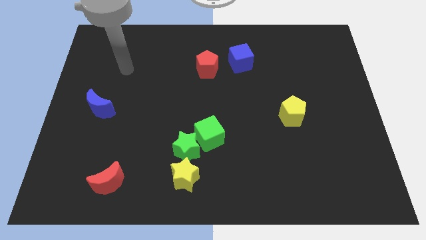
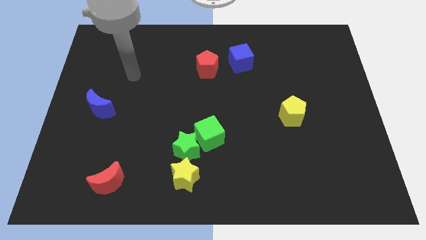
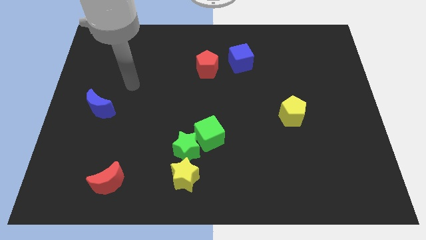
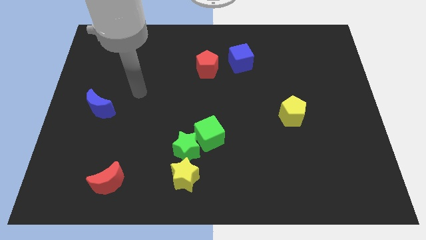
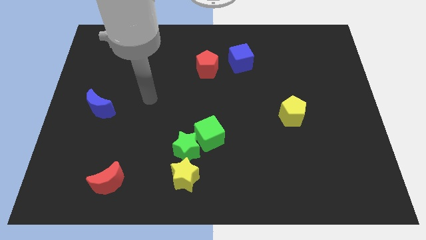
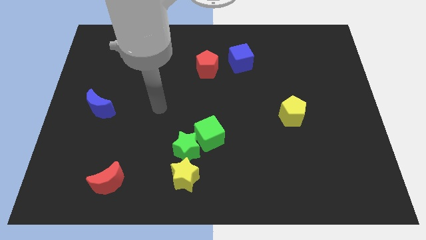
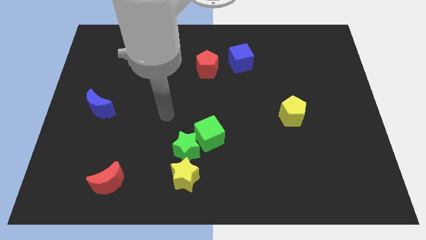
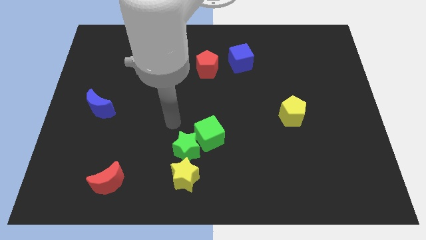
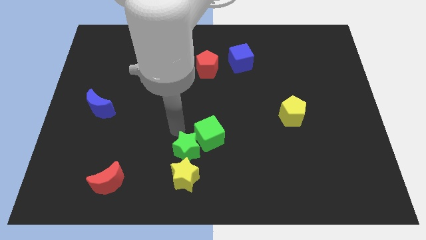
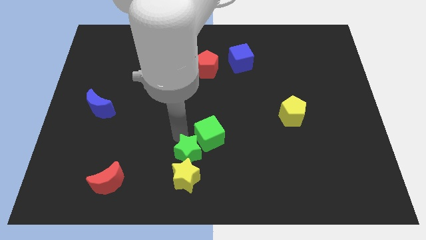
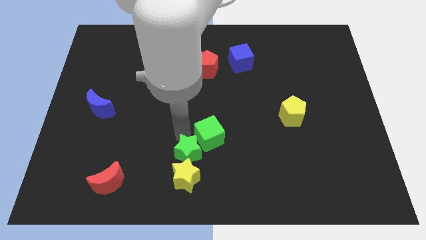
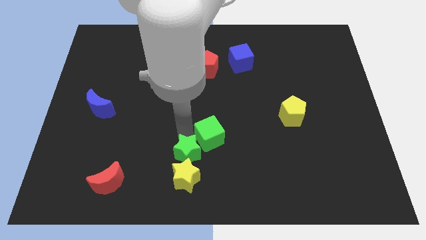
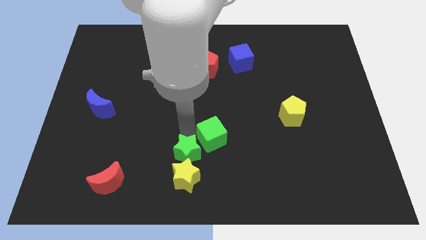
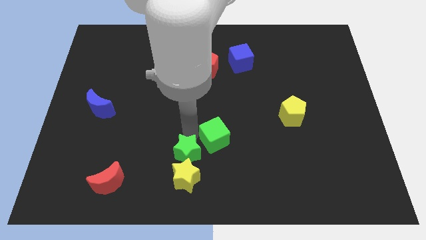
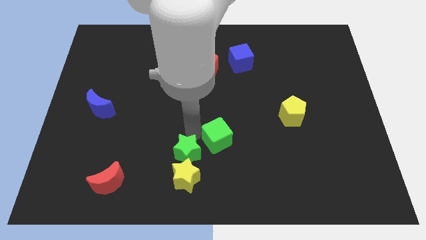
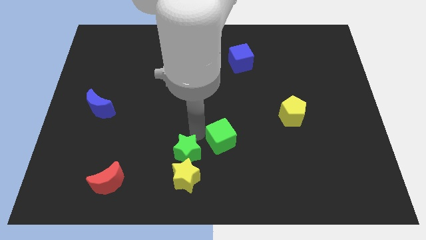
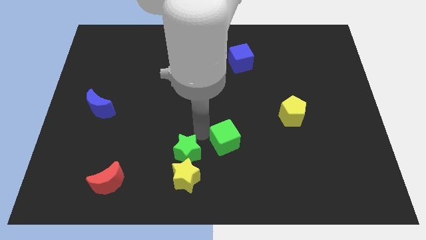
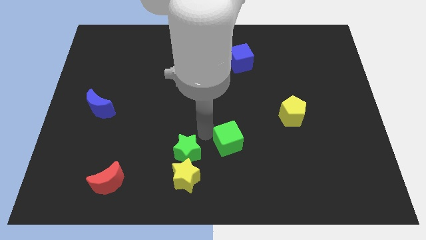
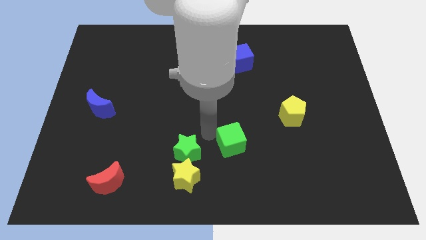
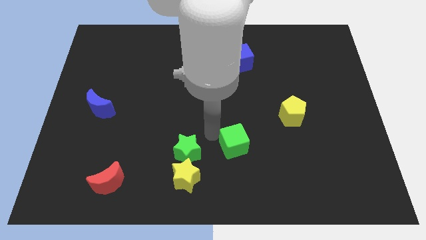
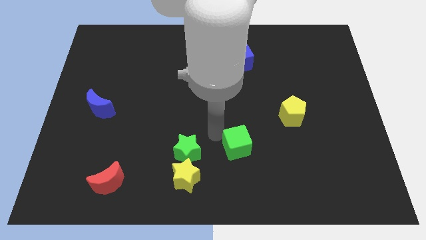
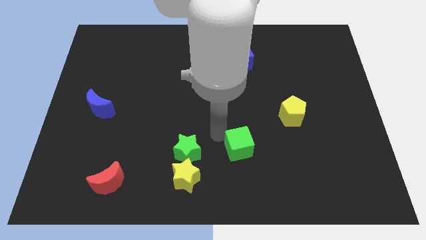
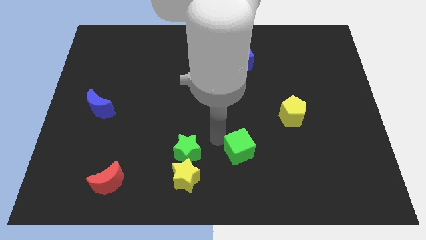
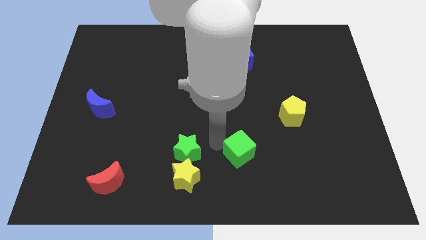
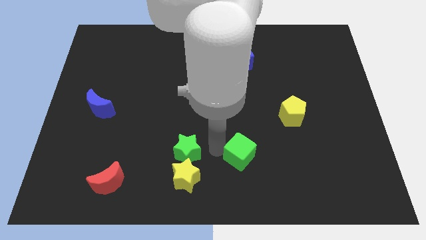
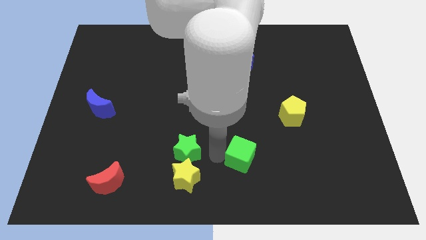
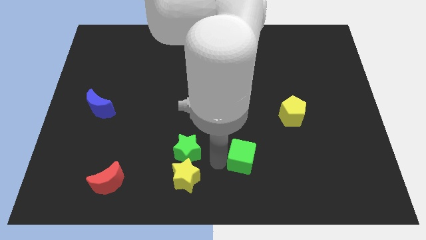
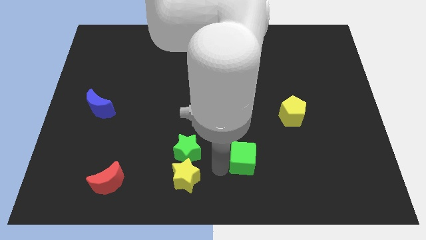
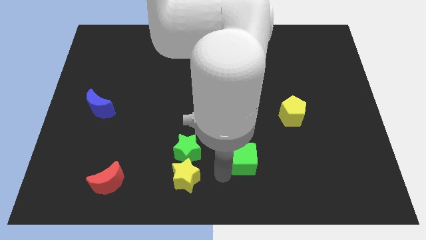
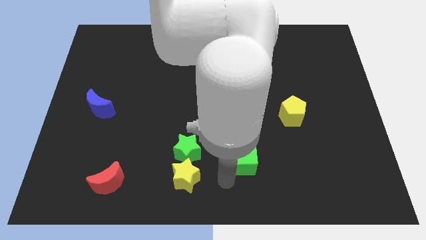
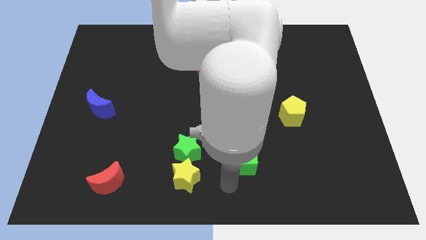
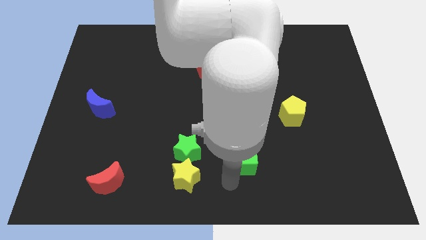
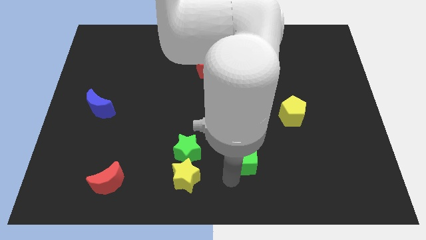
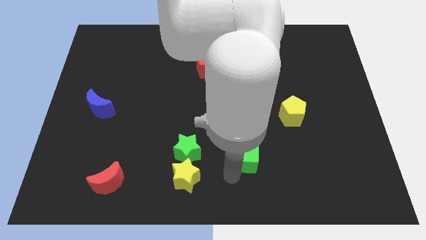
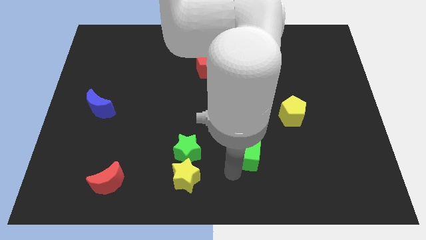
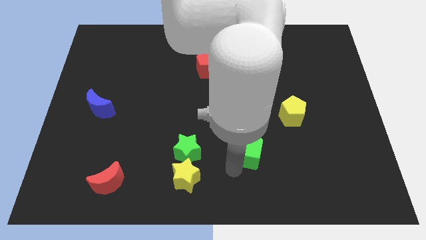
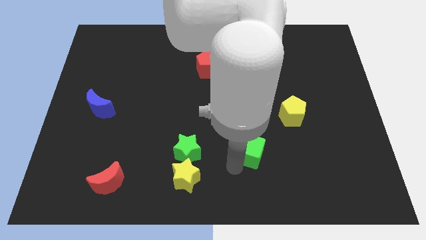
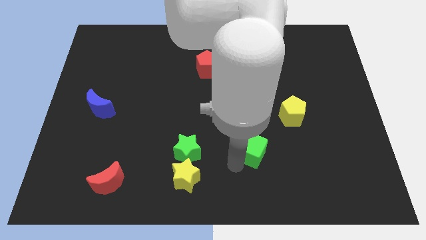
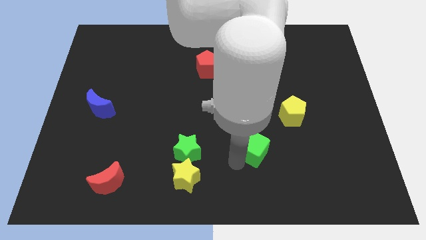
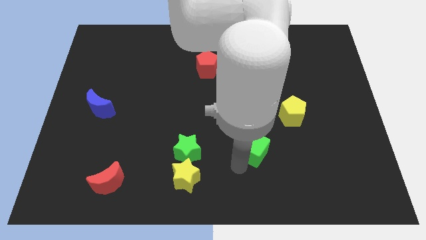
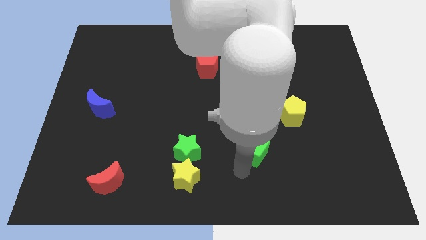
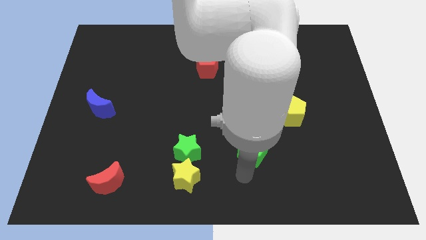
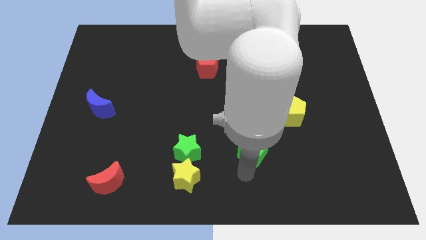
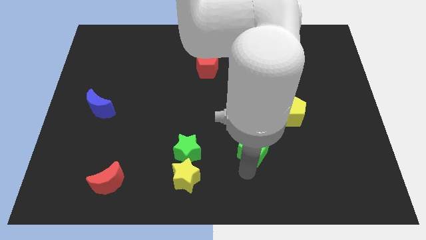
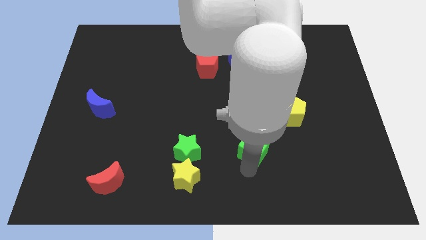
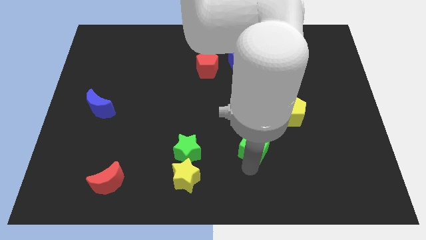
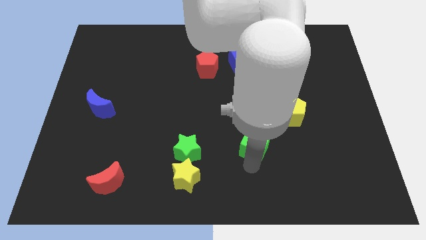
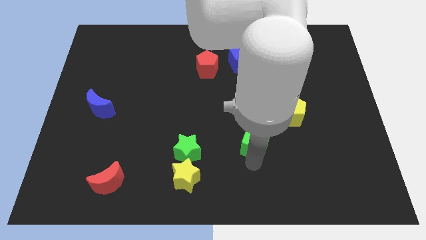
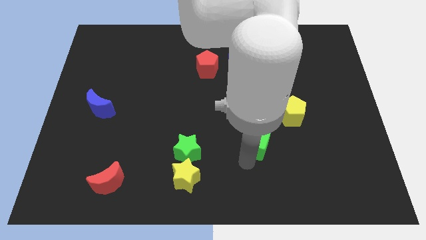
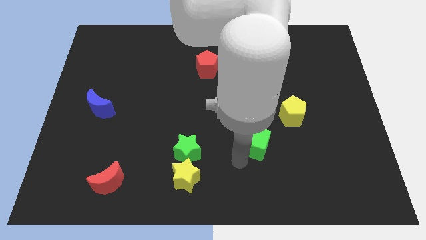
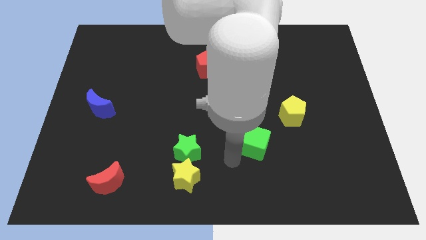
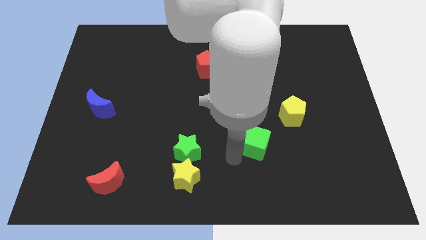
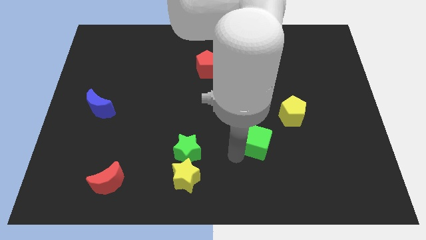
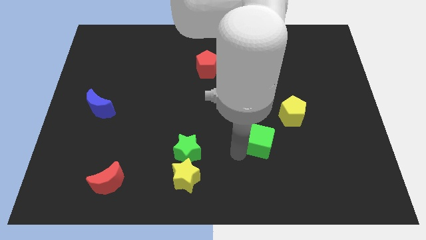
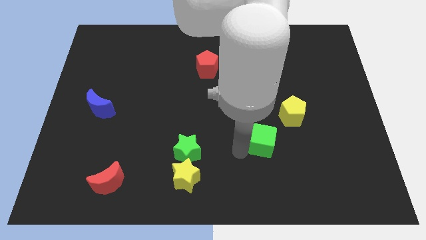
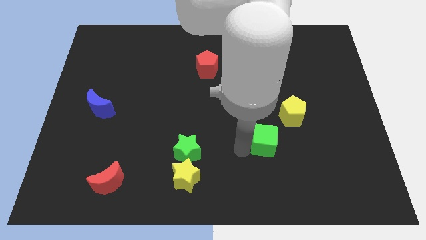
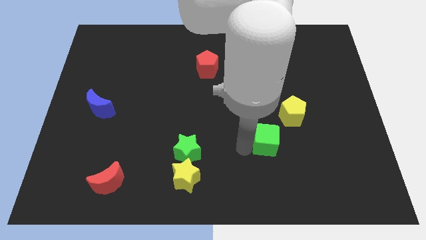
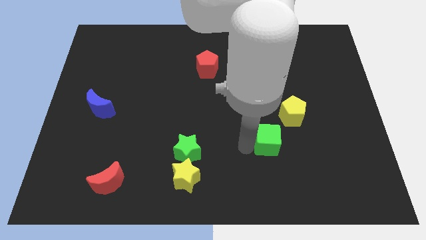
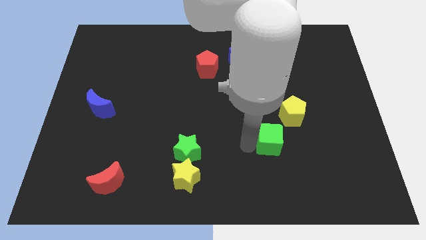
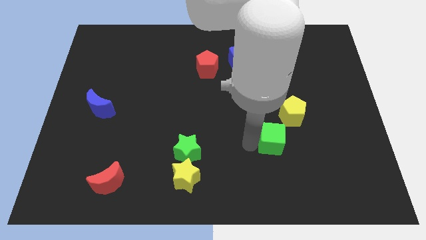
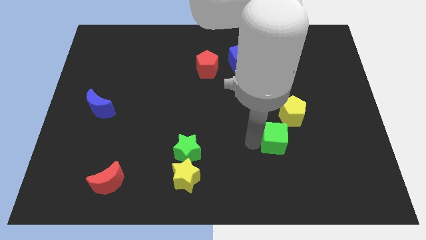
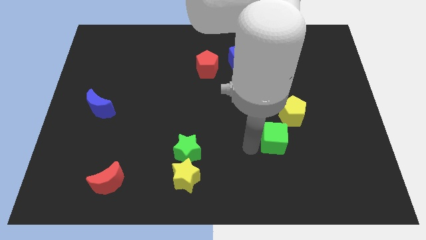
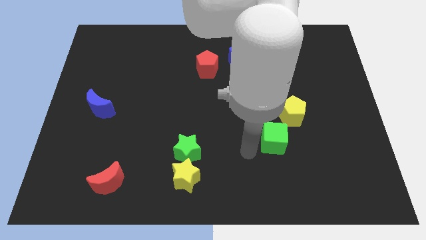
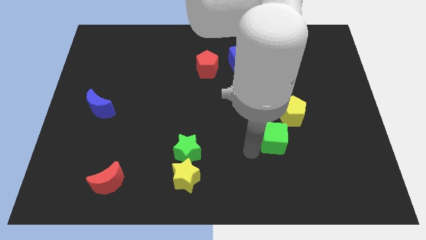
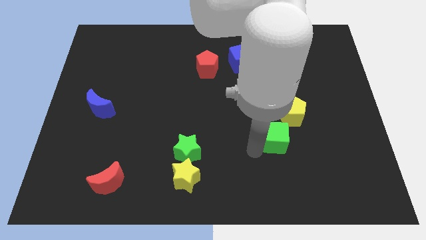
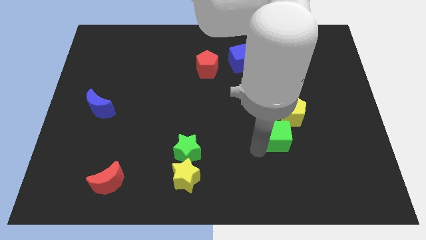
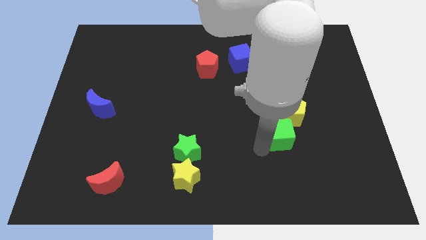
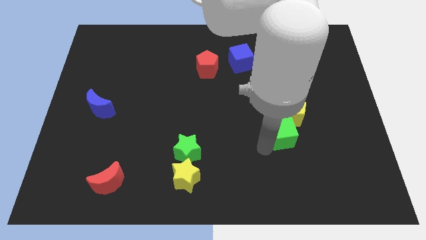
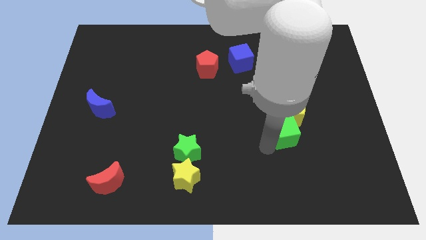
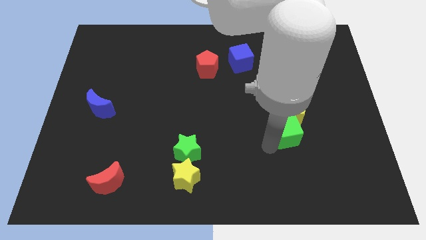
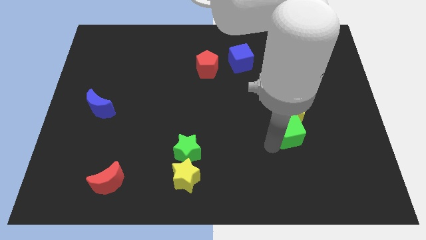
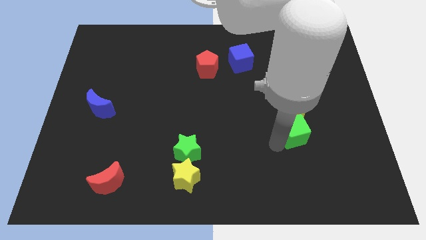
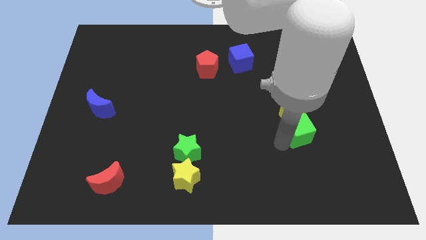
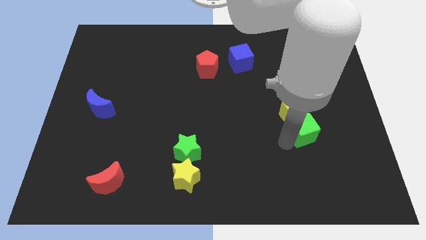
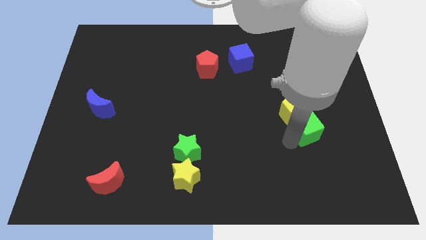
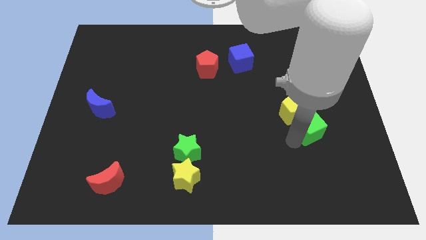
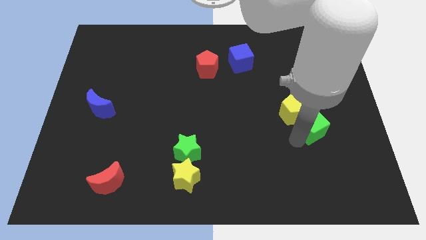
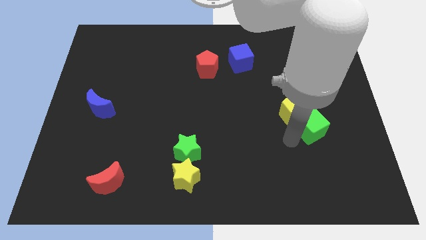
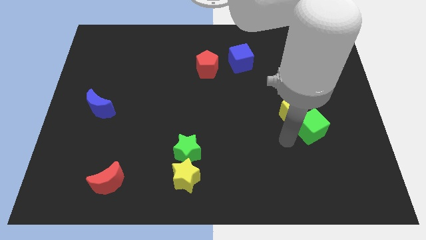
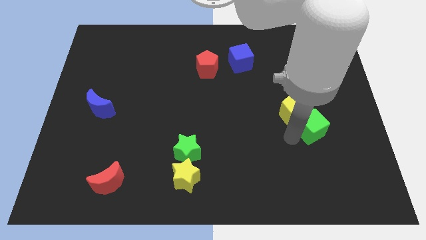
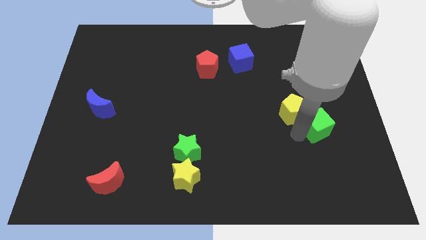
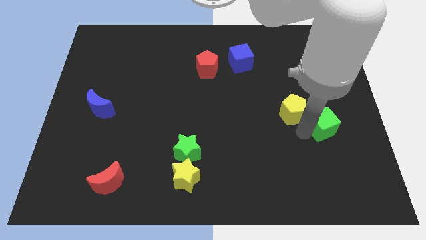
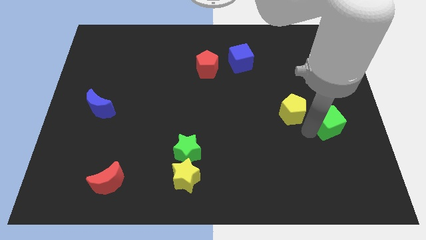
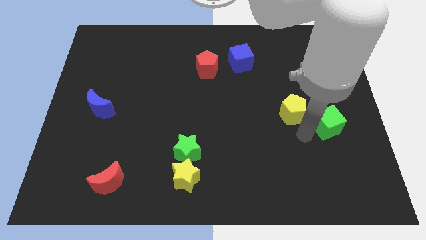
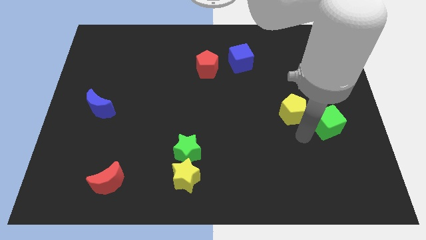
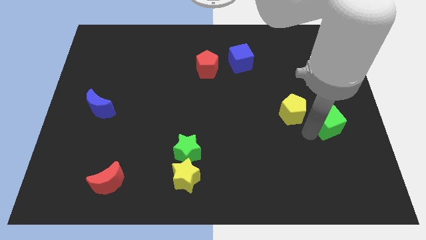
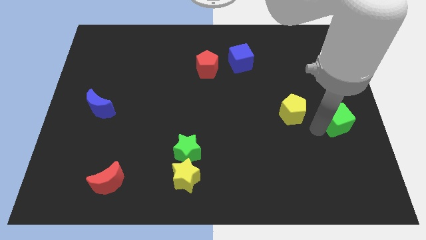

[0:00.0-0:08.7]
move the green cube to the center right
